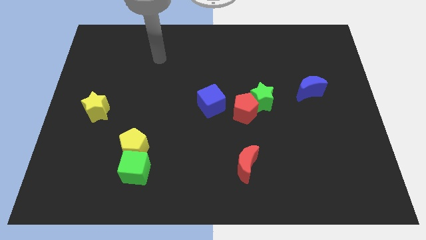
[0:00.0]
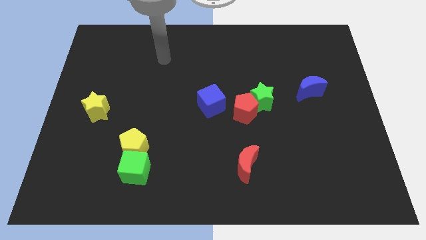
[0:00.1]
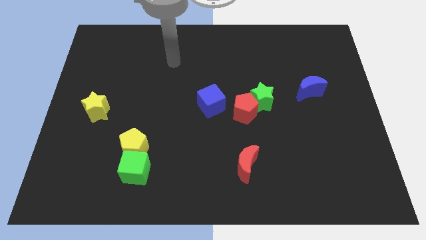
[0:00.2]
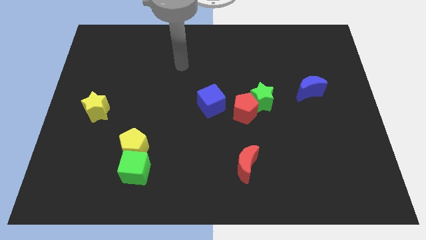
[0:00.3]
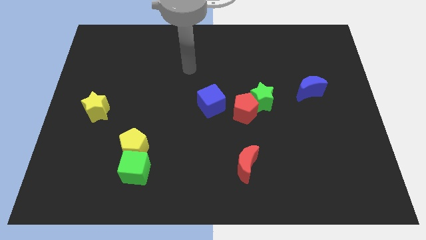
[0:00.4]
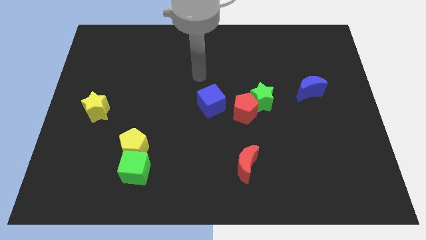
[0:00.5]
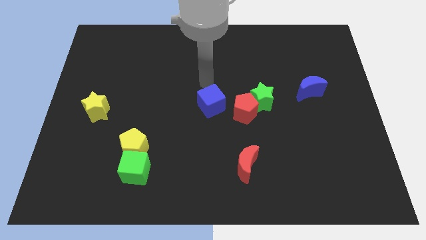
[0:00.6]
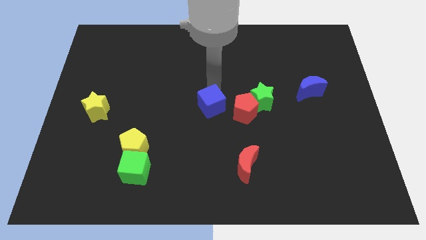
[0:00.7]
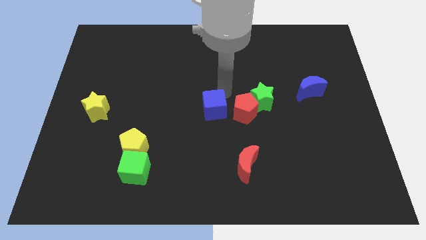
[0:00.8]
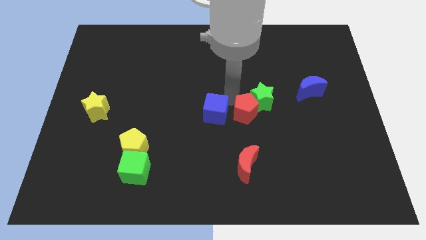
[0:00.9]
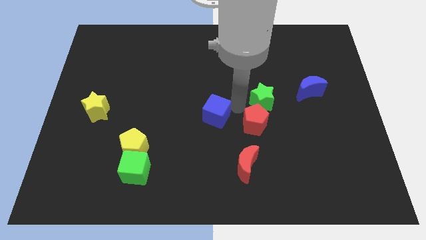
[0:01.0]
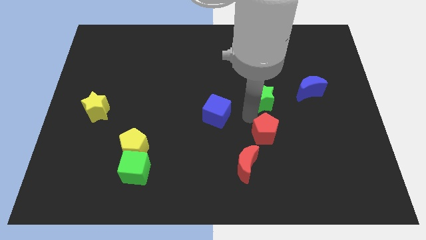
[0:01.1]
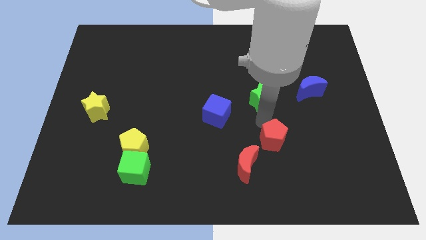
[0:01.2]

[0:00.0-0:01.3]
pull the green star apart from the red pentagon

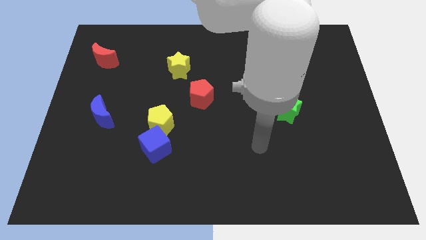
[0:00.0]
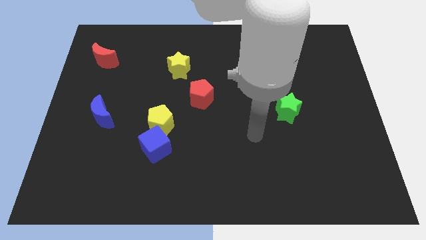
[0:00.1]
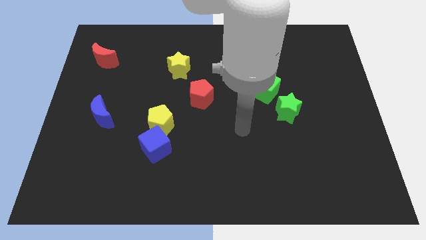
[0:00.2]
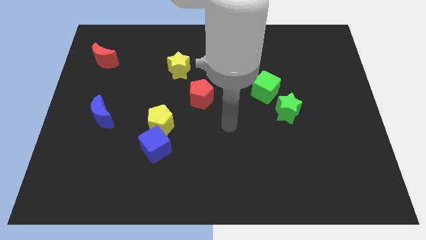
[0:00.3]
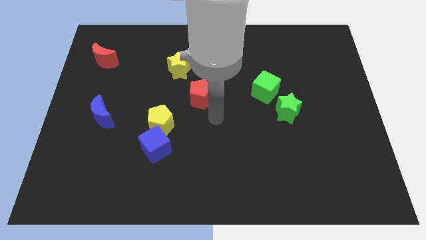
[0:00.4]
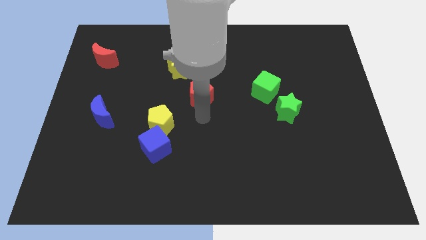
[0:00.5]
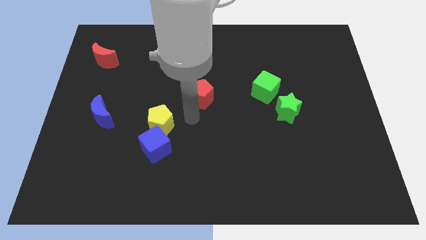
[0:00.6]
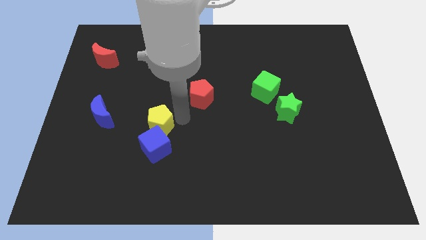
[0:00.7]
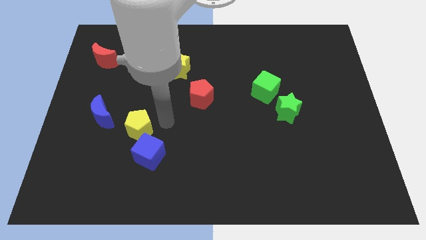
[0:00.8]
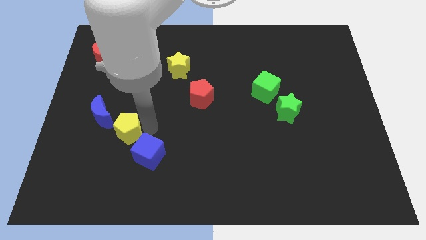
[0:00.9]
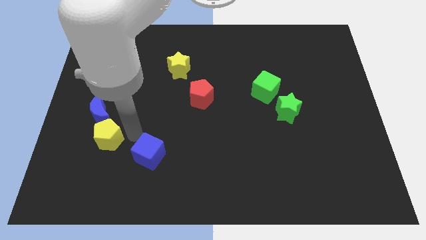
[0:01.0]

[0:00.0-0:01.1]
separate the blue cube from the yellow pentagon

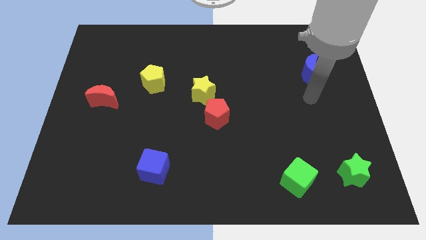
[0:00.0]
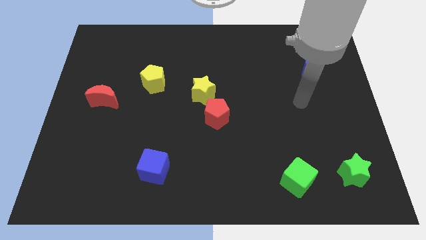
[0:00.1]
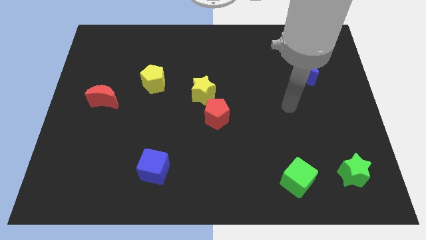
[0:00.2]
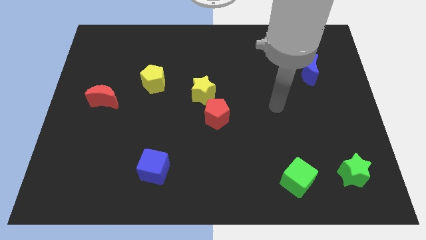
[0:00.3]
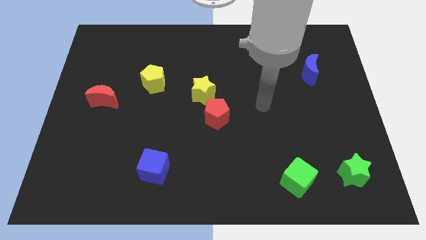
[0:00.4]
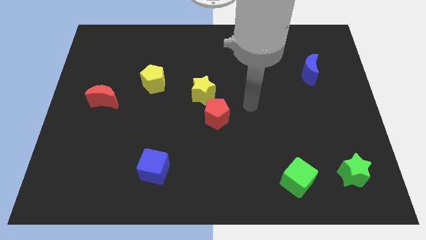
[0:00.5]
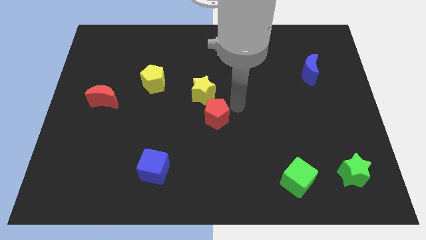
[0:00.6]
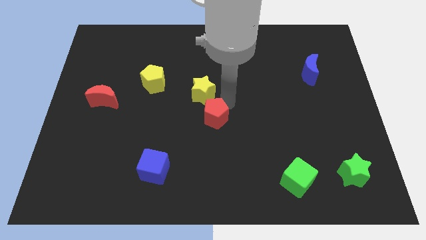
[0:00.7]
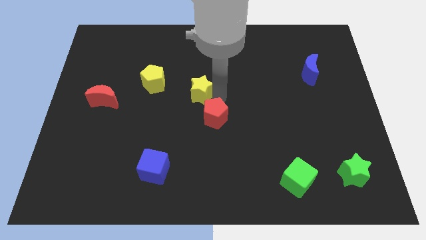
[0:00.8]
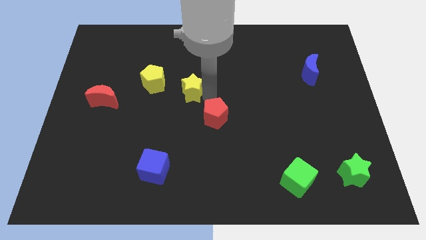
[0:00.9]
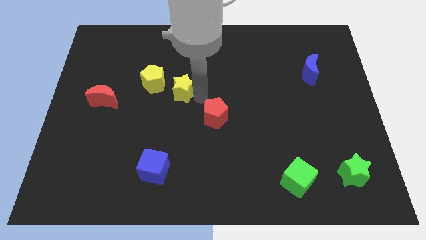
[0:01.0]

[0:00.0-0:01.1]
separate the red pentagon from the yellow star

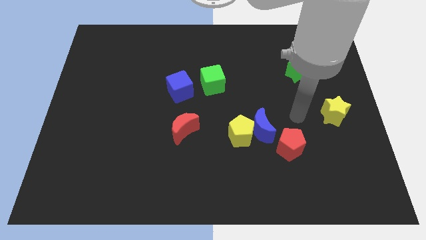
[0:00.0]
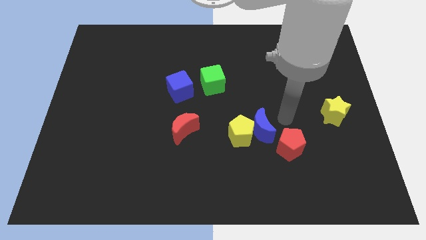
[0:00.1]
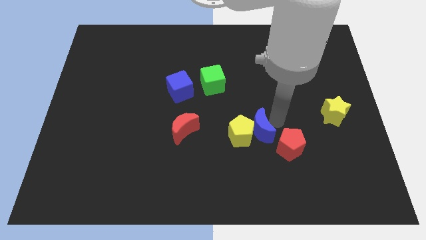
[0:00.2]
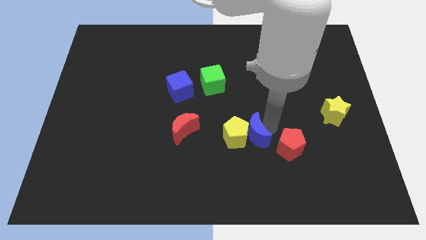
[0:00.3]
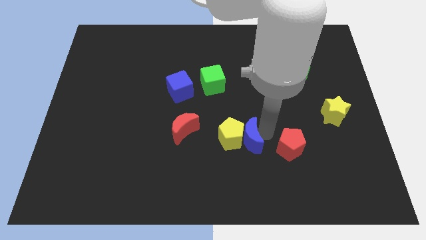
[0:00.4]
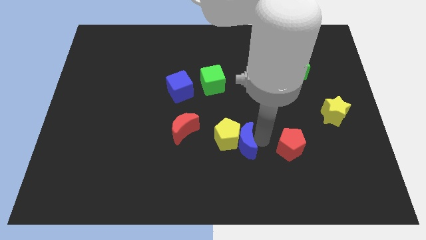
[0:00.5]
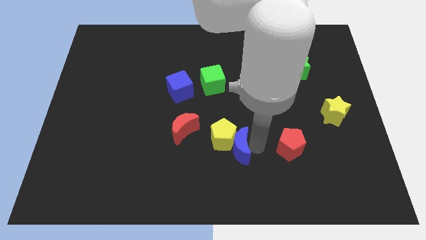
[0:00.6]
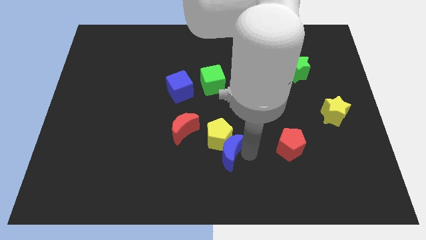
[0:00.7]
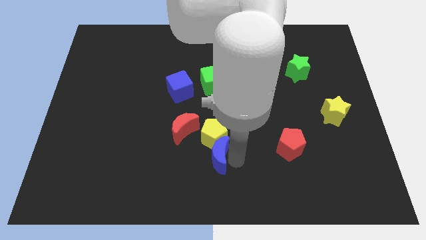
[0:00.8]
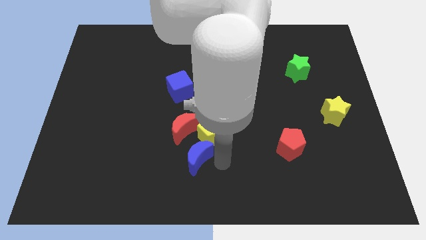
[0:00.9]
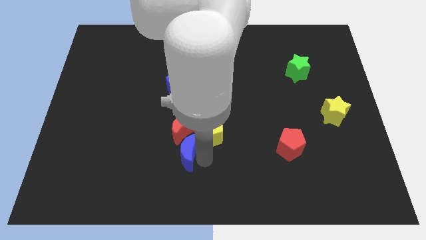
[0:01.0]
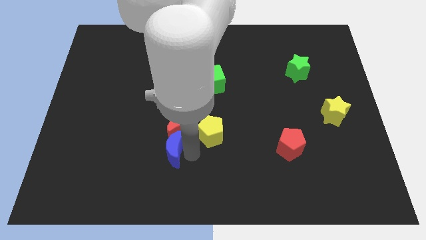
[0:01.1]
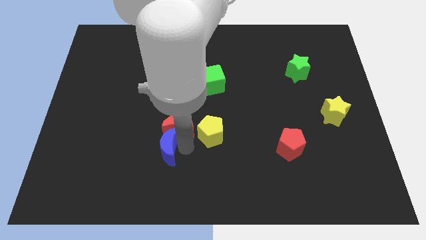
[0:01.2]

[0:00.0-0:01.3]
move the yellow pentagon away from the blue moon

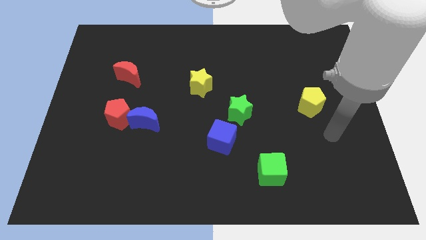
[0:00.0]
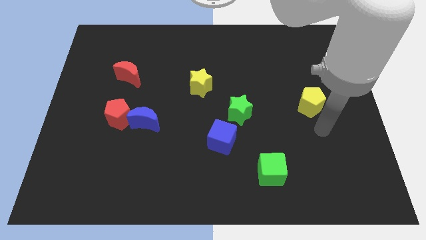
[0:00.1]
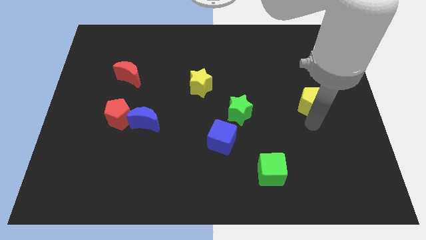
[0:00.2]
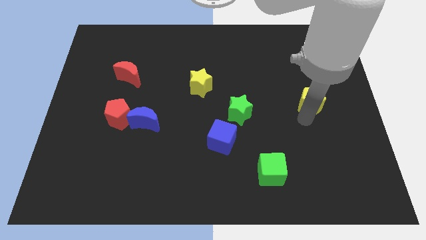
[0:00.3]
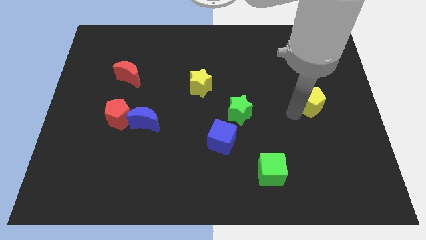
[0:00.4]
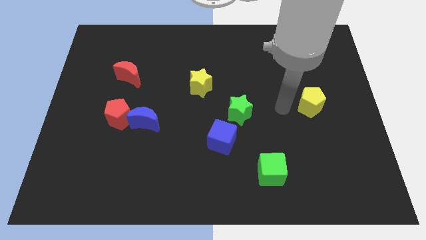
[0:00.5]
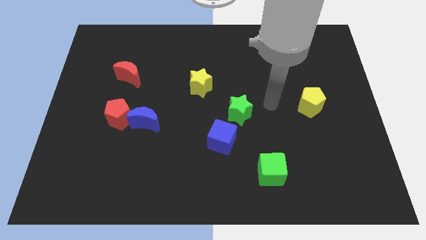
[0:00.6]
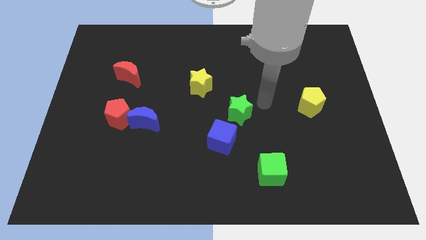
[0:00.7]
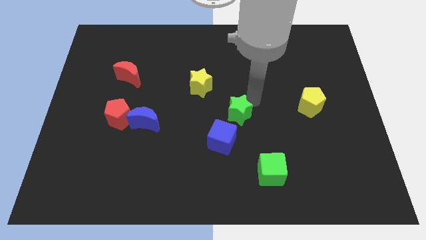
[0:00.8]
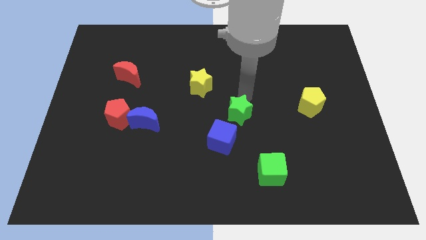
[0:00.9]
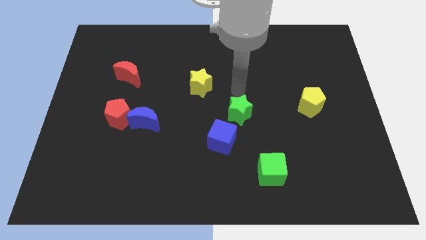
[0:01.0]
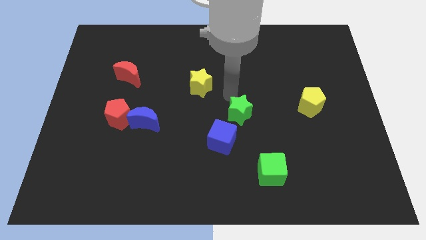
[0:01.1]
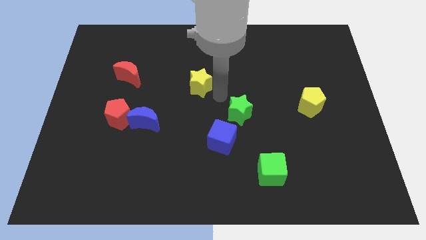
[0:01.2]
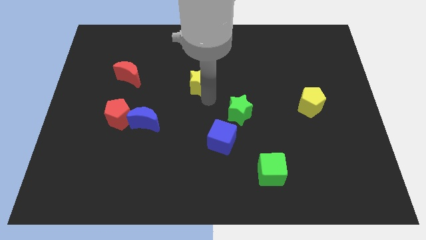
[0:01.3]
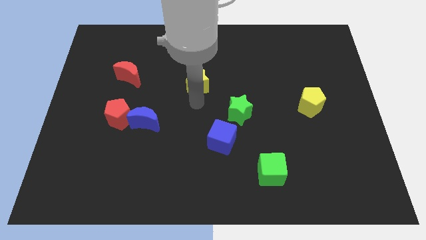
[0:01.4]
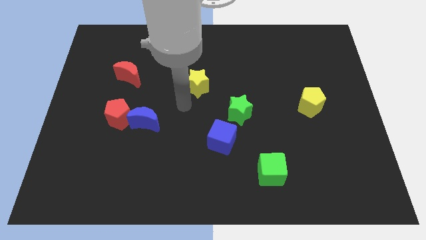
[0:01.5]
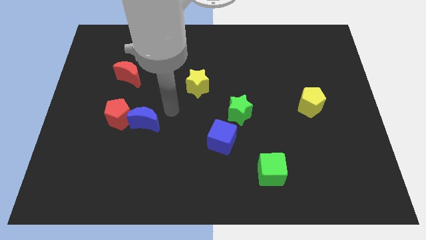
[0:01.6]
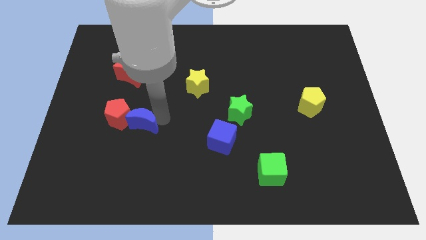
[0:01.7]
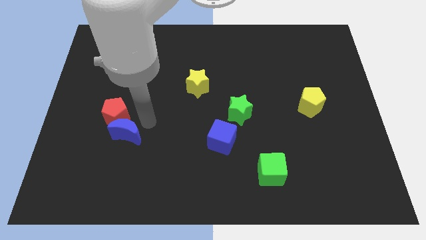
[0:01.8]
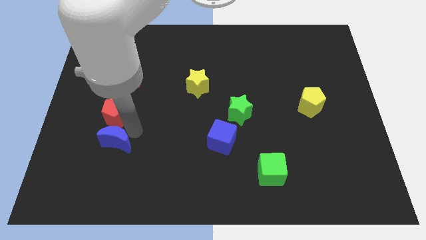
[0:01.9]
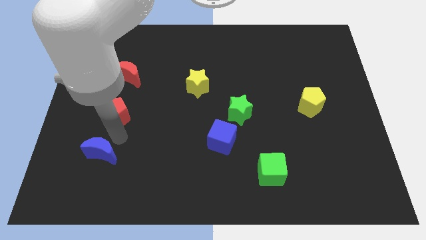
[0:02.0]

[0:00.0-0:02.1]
pull the red pentagon apart from the blue moon

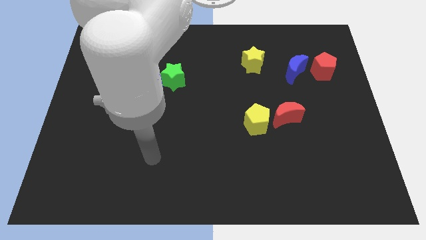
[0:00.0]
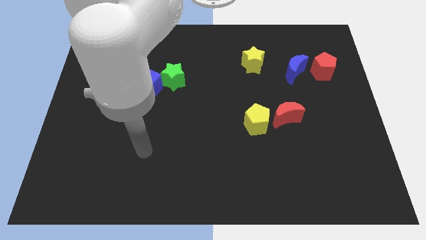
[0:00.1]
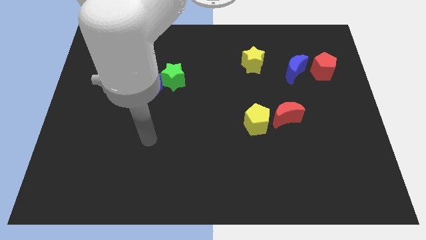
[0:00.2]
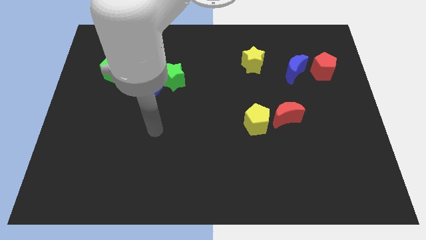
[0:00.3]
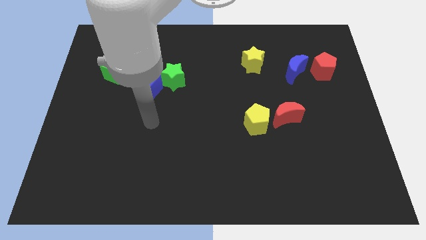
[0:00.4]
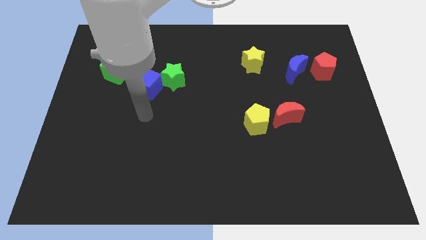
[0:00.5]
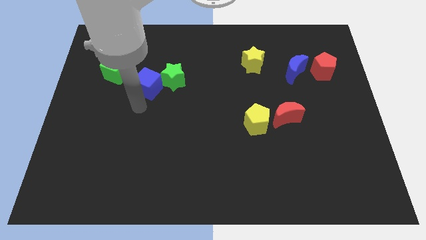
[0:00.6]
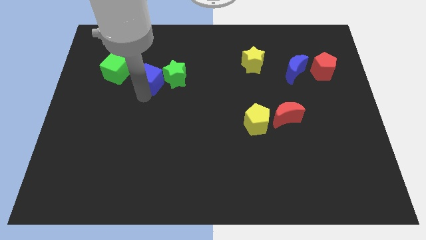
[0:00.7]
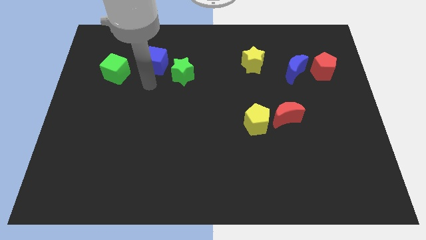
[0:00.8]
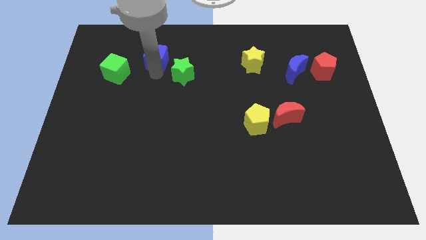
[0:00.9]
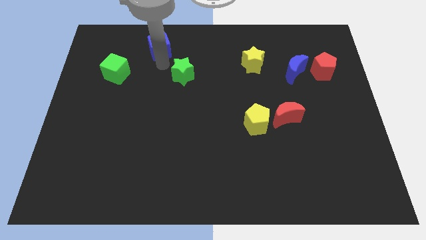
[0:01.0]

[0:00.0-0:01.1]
move the green star away from the blue cube

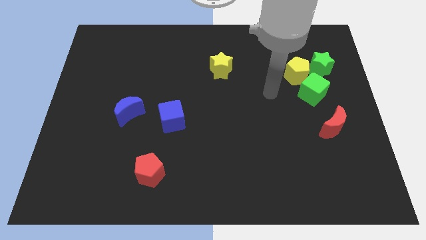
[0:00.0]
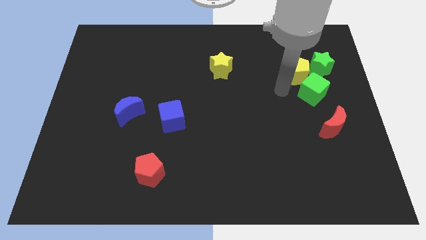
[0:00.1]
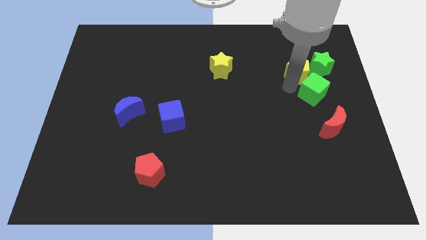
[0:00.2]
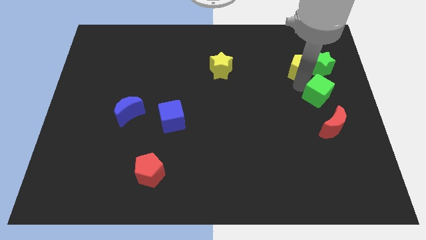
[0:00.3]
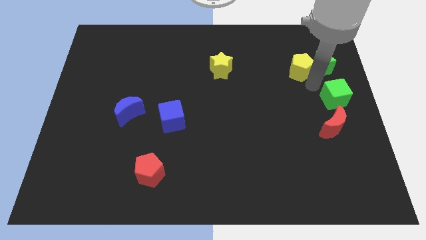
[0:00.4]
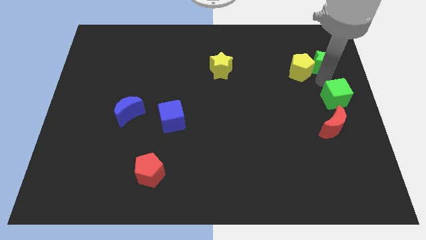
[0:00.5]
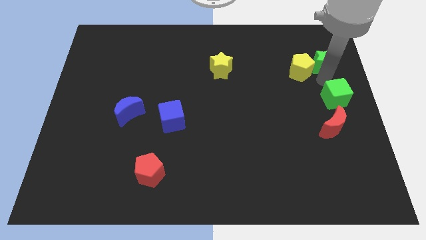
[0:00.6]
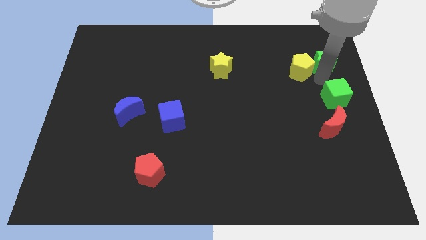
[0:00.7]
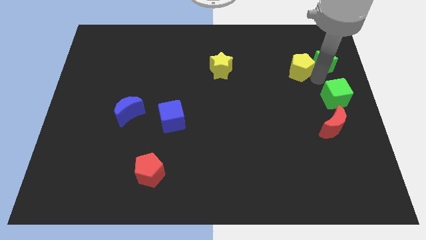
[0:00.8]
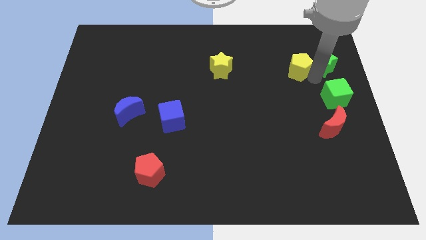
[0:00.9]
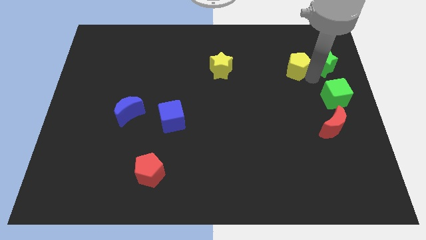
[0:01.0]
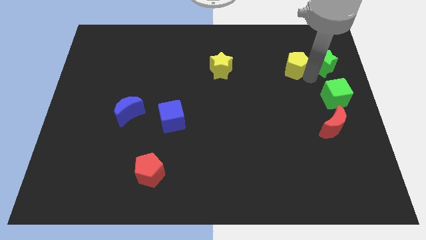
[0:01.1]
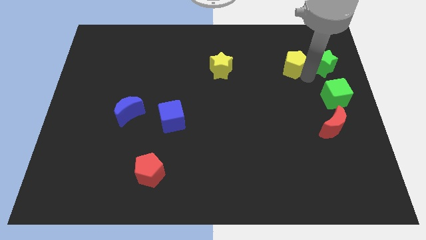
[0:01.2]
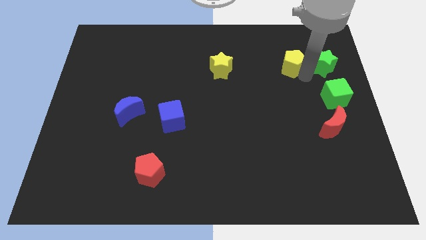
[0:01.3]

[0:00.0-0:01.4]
pull the yellow pentagon apart from the green star and green cube
